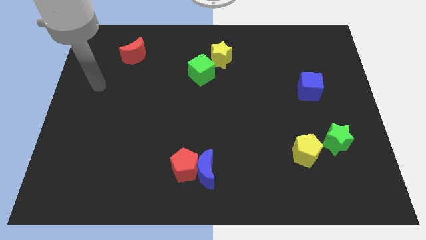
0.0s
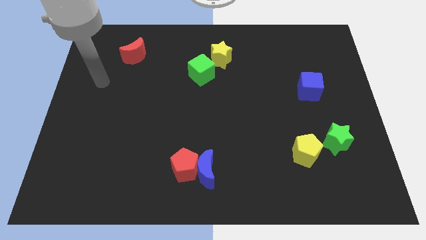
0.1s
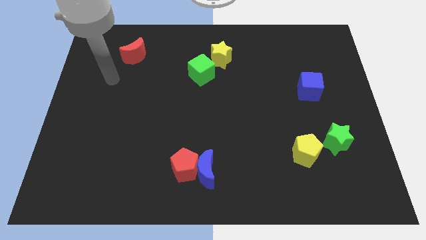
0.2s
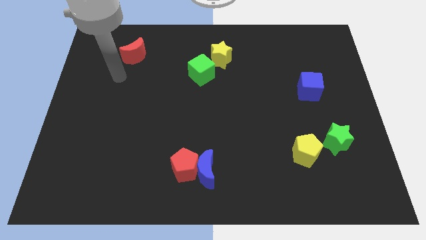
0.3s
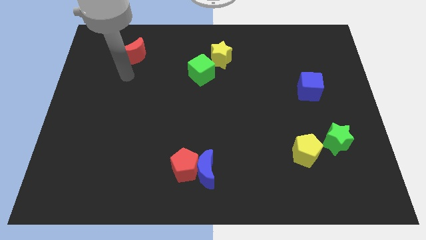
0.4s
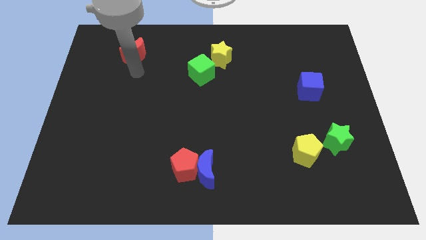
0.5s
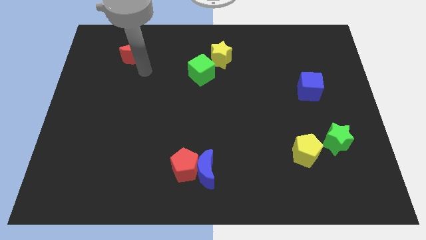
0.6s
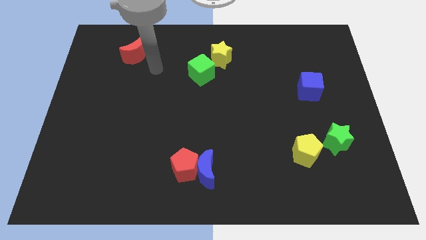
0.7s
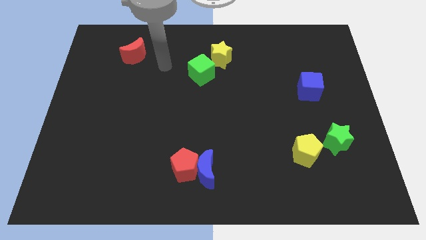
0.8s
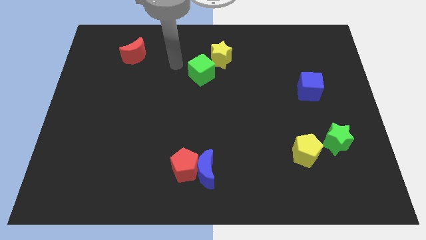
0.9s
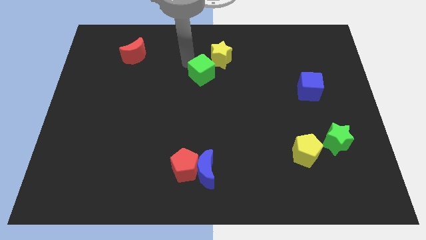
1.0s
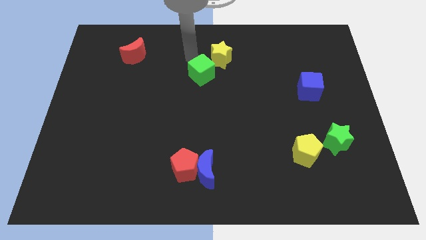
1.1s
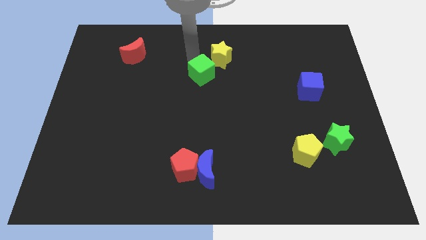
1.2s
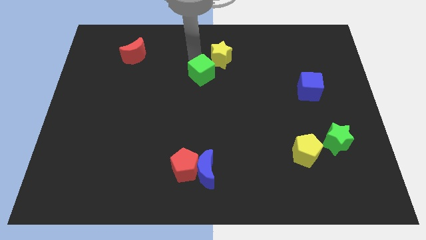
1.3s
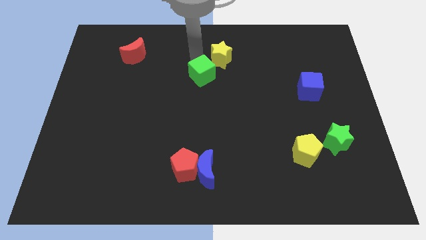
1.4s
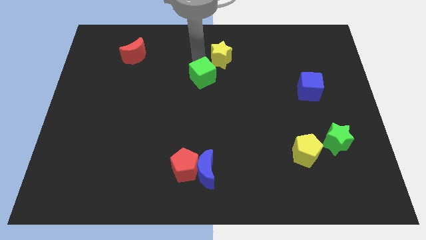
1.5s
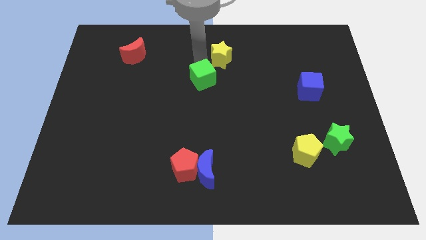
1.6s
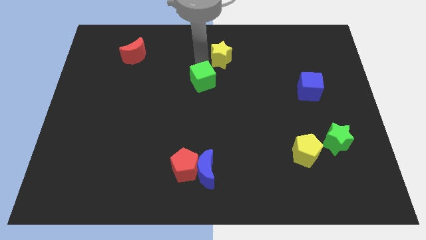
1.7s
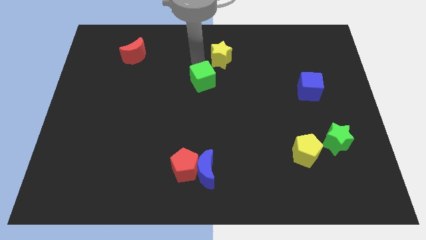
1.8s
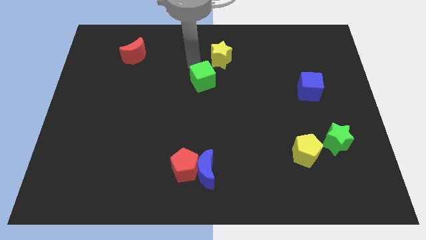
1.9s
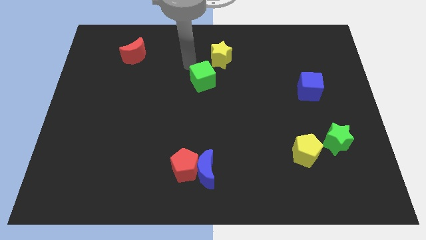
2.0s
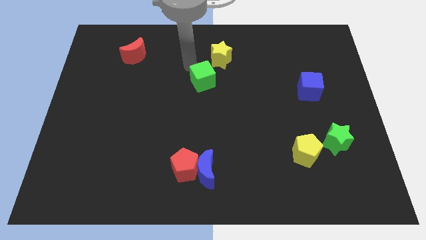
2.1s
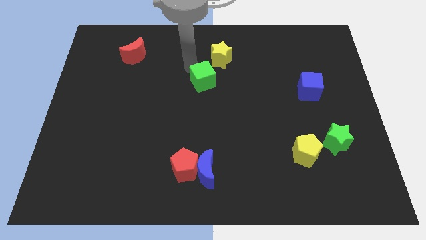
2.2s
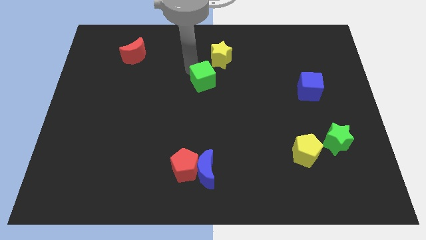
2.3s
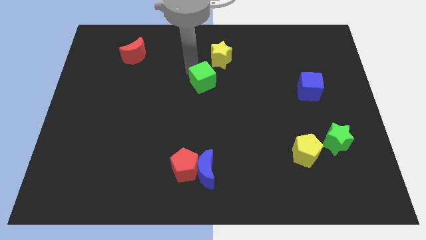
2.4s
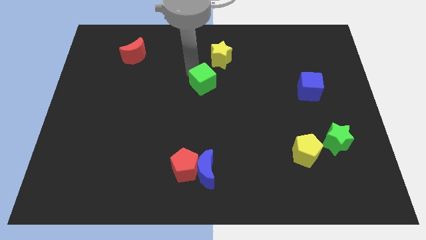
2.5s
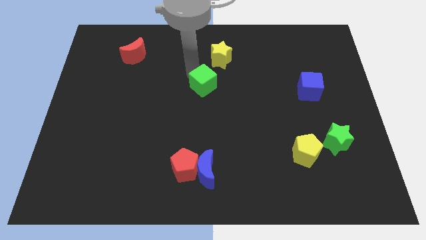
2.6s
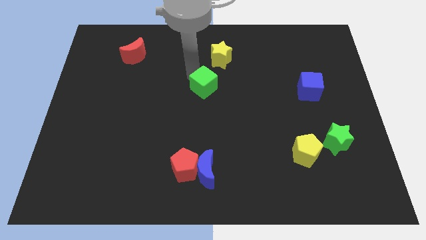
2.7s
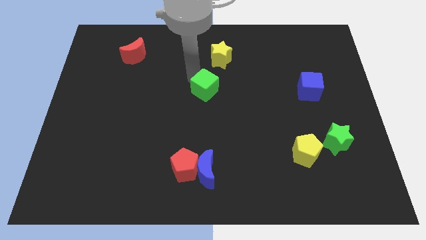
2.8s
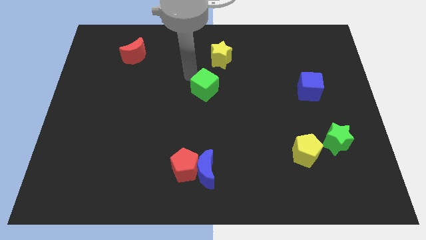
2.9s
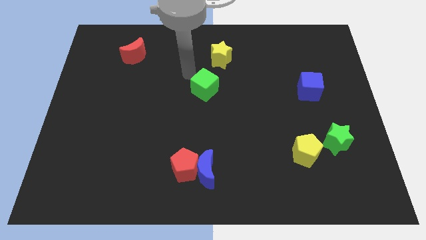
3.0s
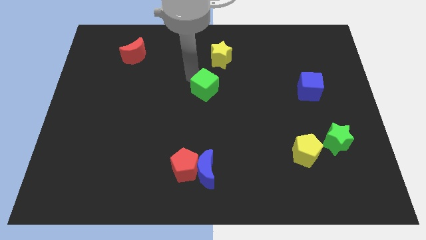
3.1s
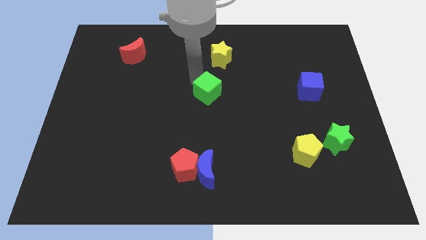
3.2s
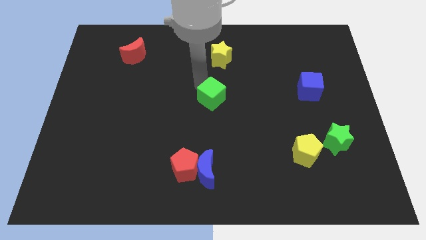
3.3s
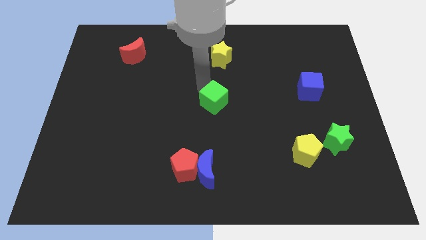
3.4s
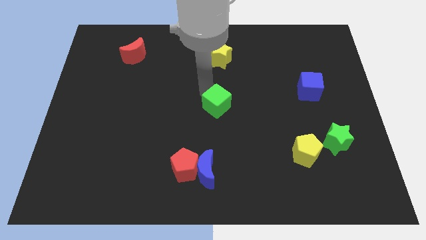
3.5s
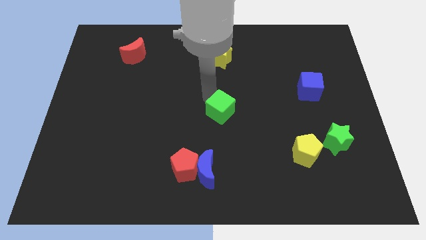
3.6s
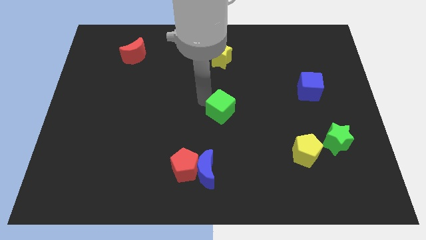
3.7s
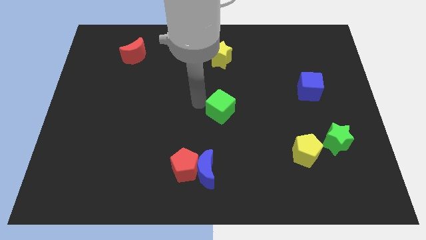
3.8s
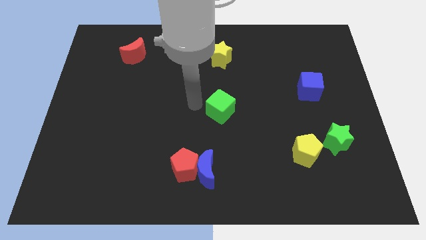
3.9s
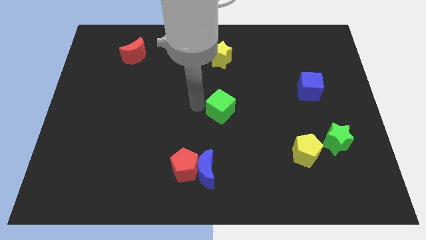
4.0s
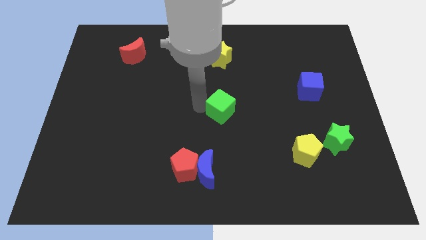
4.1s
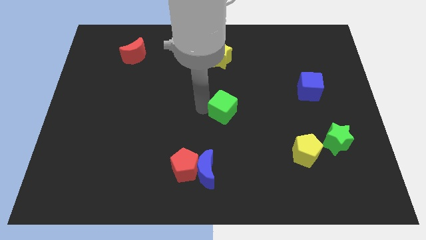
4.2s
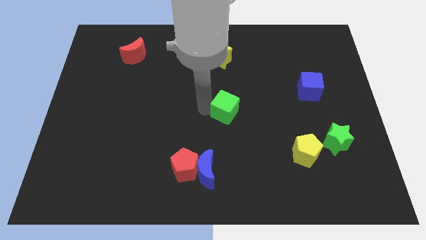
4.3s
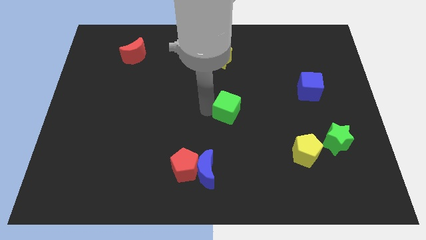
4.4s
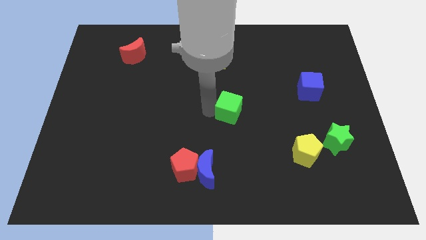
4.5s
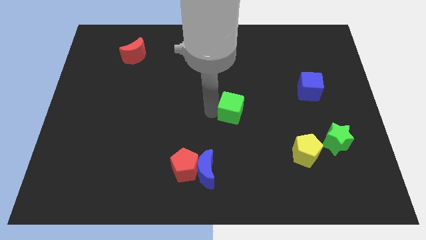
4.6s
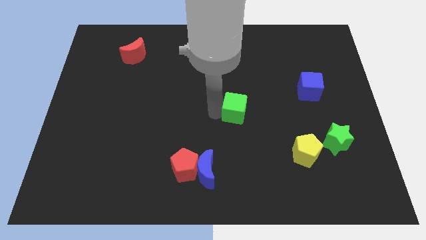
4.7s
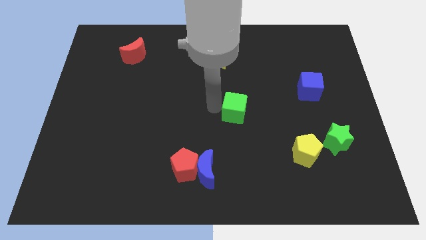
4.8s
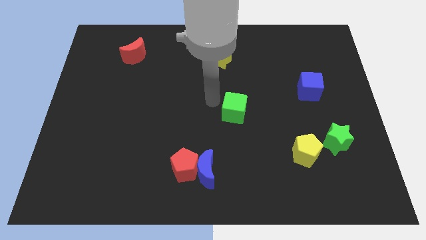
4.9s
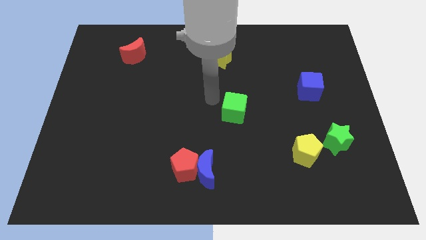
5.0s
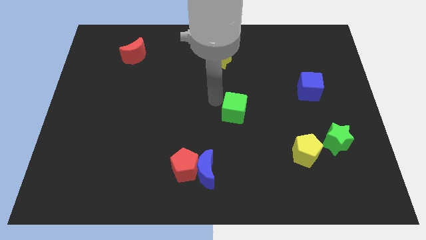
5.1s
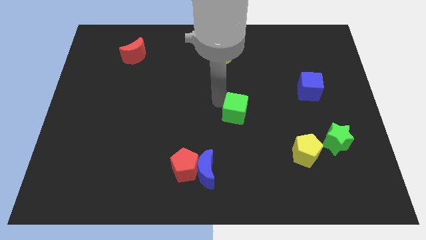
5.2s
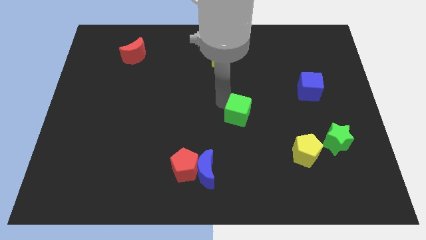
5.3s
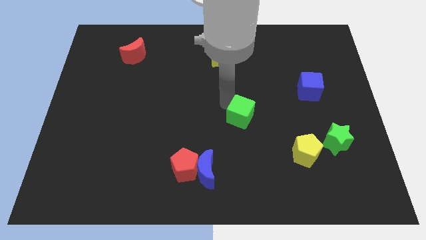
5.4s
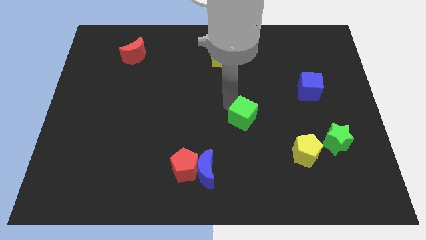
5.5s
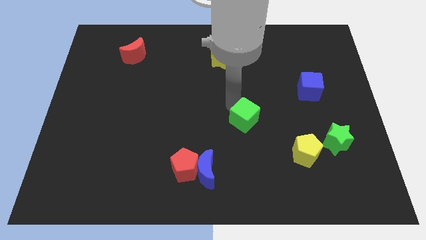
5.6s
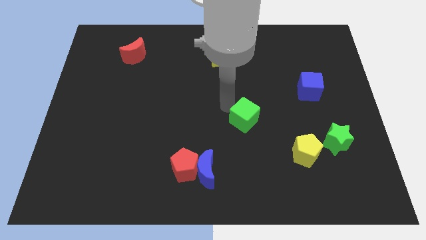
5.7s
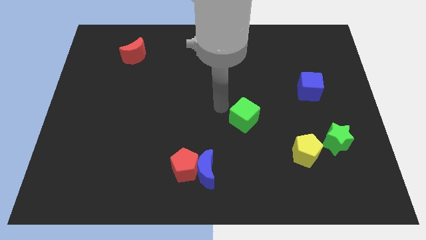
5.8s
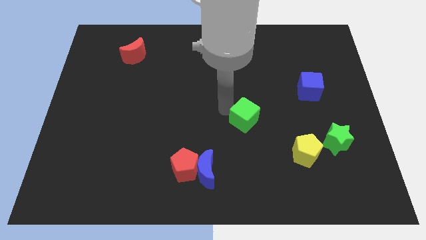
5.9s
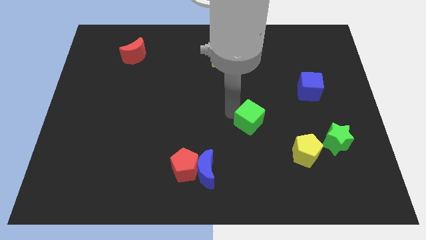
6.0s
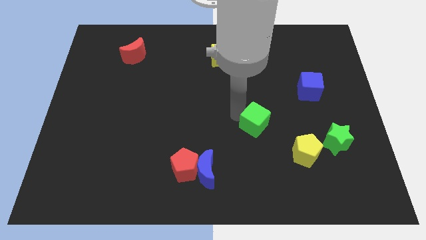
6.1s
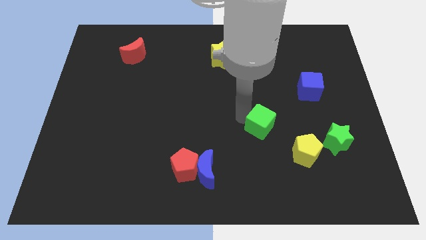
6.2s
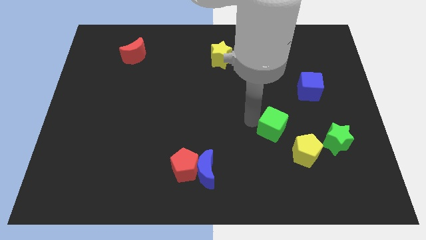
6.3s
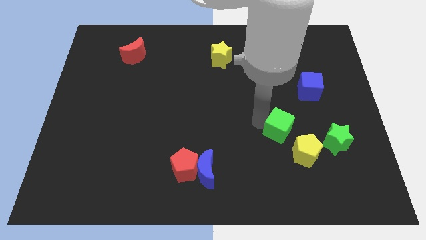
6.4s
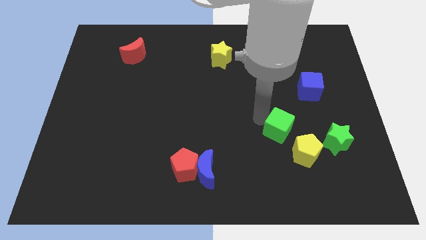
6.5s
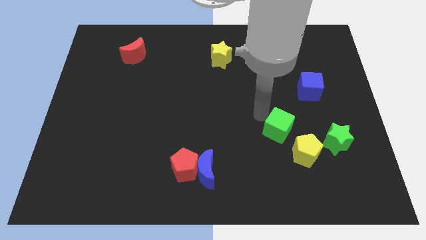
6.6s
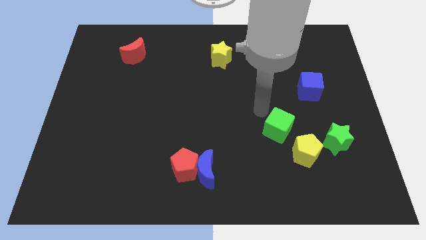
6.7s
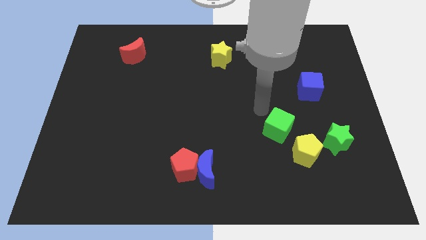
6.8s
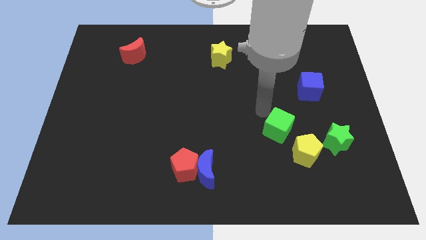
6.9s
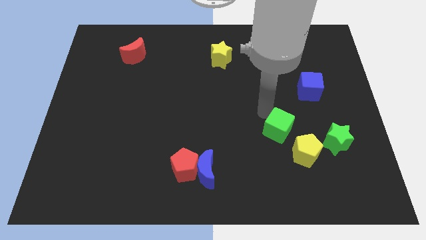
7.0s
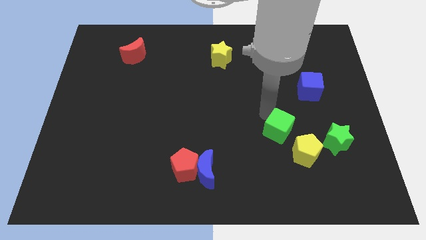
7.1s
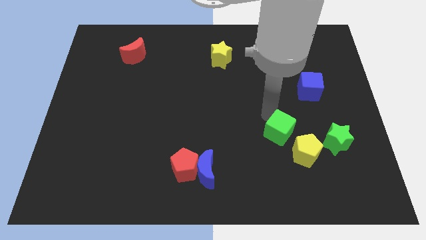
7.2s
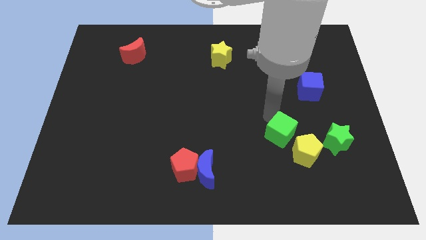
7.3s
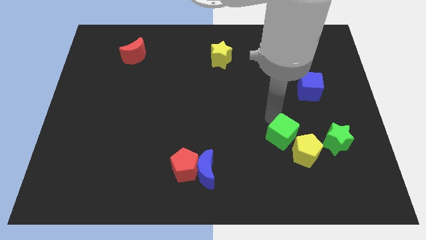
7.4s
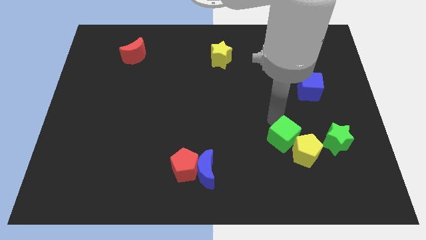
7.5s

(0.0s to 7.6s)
slide the green cube to the yellow pentagon

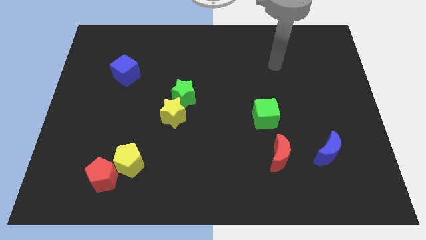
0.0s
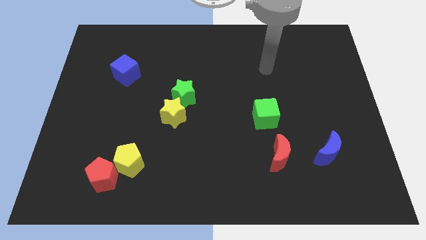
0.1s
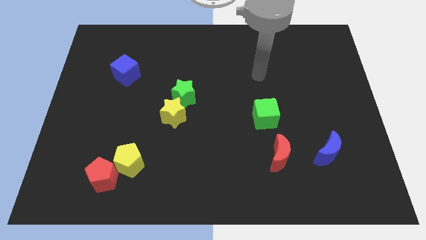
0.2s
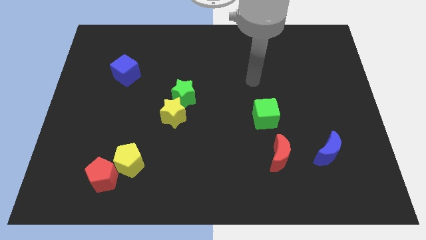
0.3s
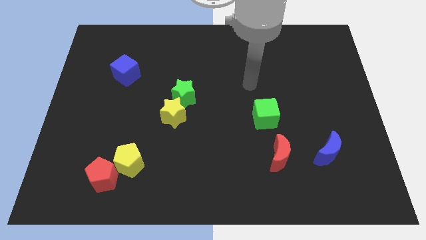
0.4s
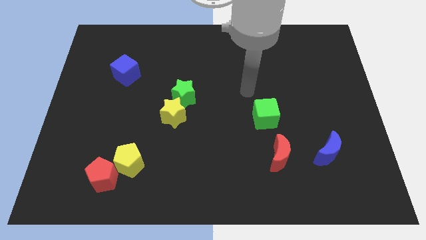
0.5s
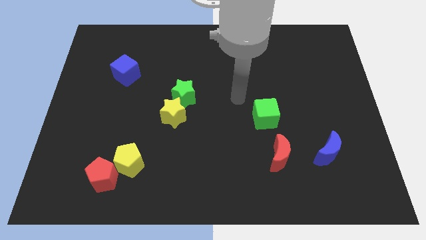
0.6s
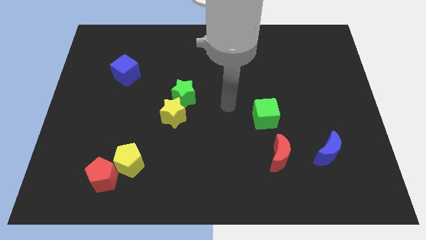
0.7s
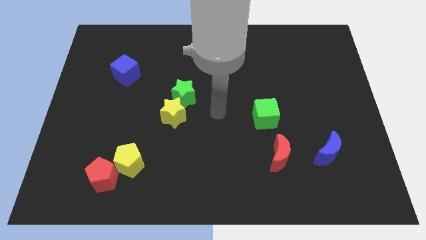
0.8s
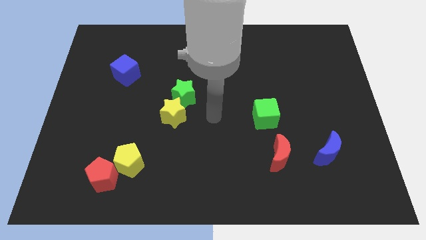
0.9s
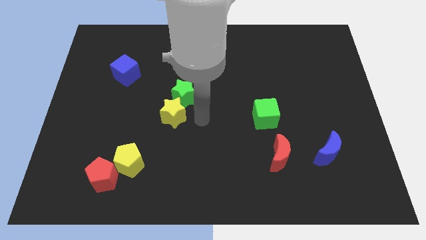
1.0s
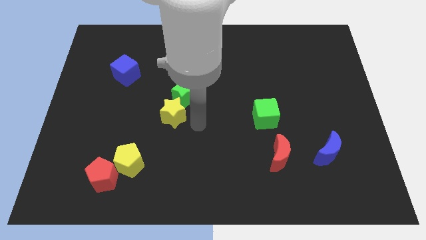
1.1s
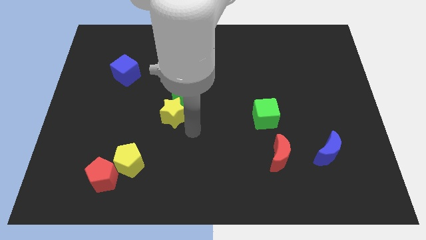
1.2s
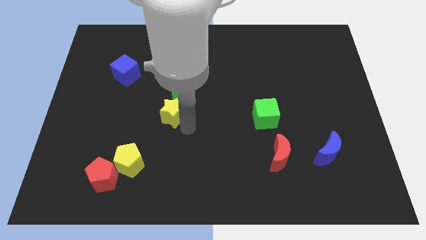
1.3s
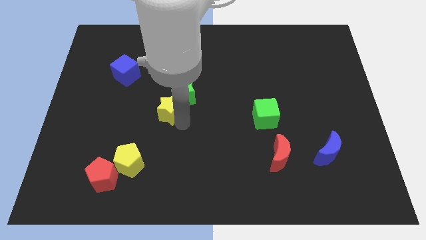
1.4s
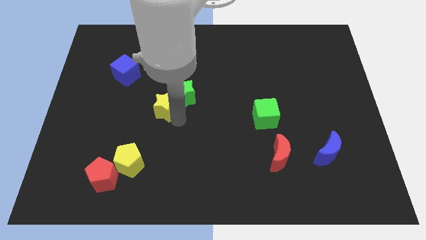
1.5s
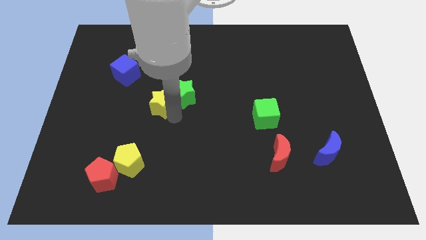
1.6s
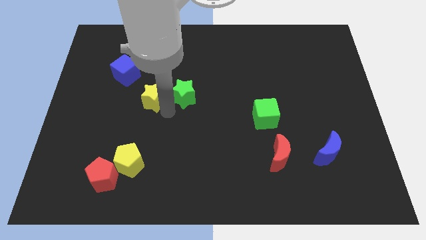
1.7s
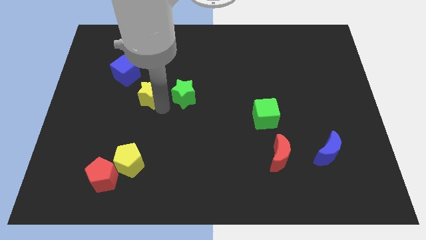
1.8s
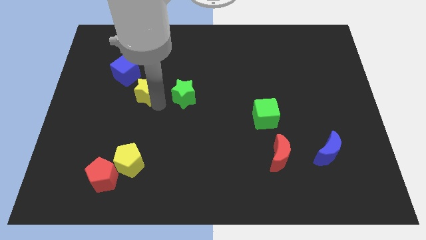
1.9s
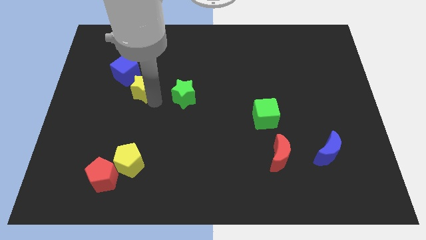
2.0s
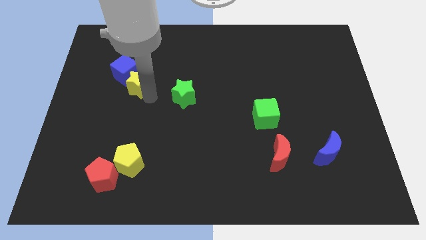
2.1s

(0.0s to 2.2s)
push the yellow star next to the blue cube
